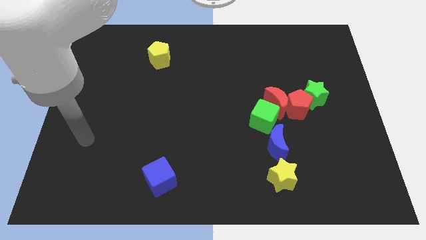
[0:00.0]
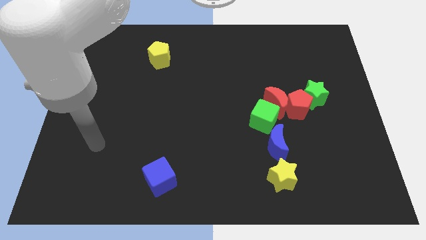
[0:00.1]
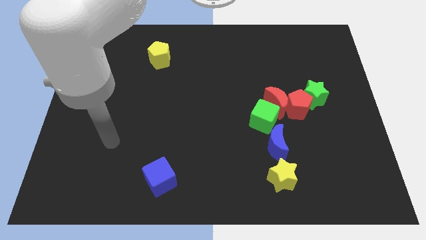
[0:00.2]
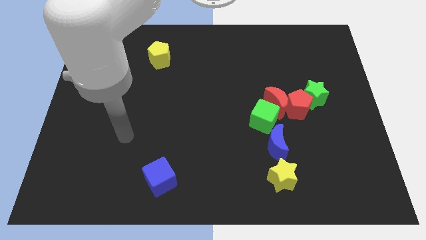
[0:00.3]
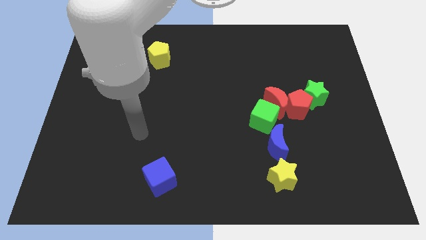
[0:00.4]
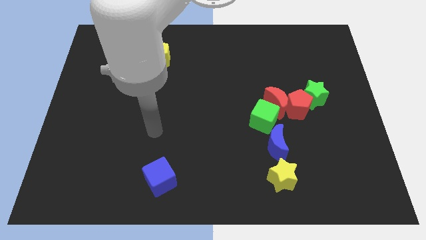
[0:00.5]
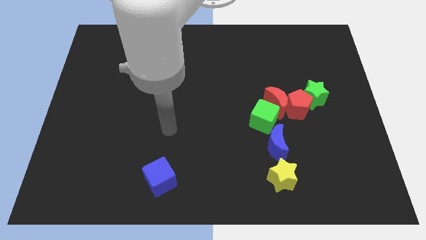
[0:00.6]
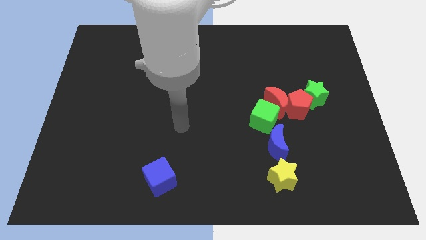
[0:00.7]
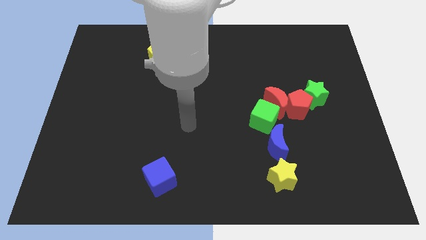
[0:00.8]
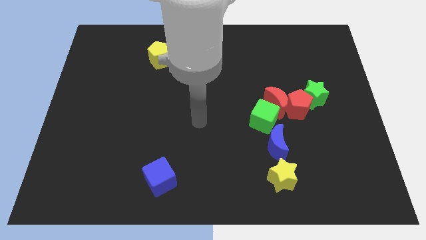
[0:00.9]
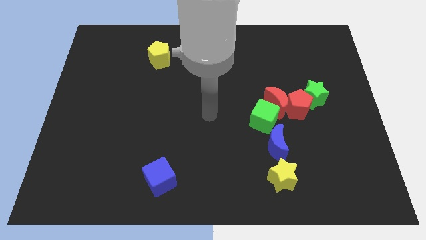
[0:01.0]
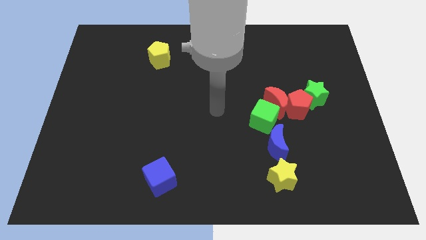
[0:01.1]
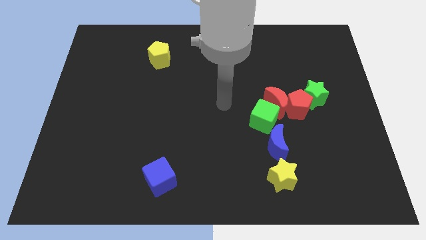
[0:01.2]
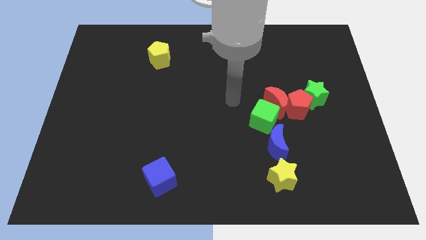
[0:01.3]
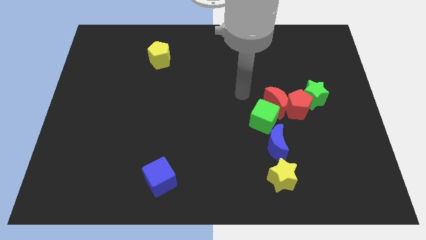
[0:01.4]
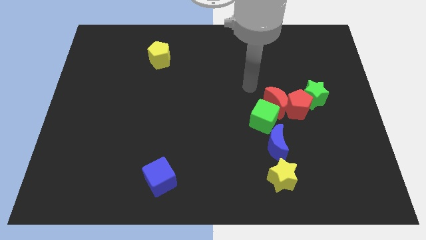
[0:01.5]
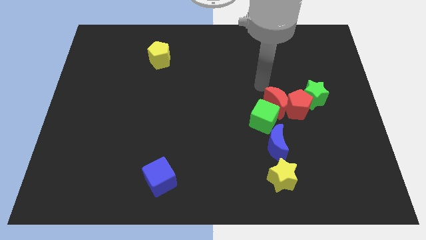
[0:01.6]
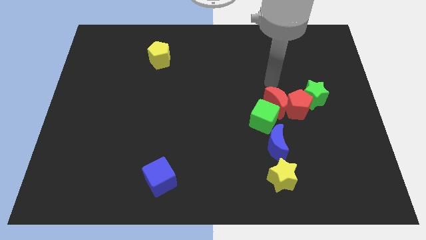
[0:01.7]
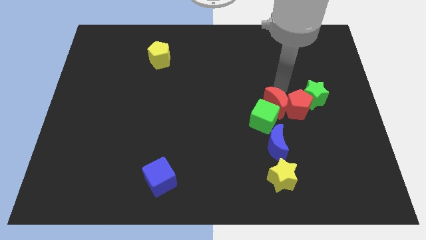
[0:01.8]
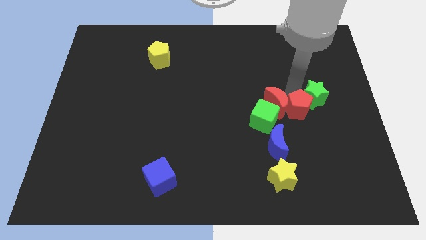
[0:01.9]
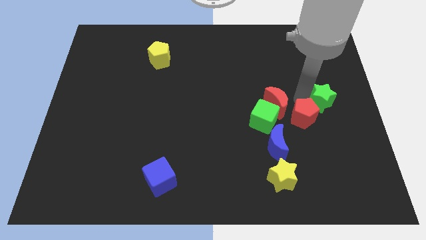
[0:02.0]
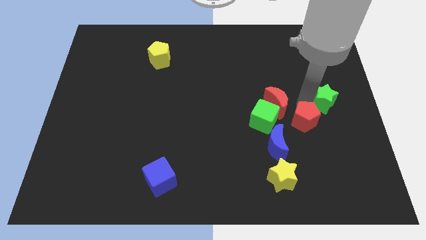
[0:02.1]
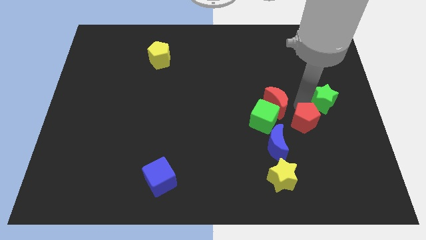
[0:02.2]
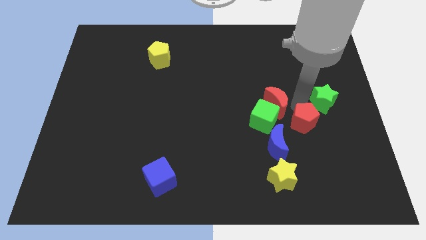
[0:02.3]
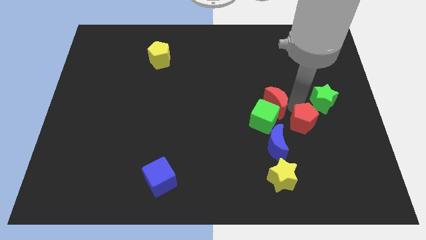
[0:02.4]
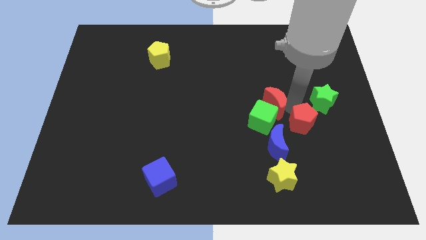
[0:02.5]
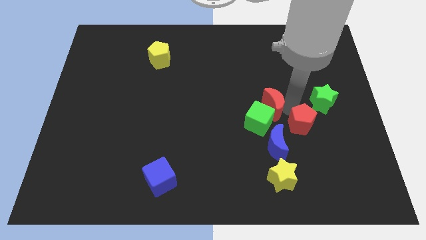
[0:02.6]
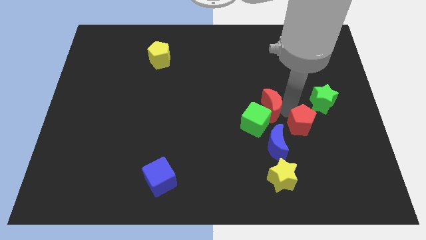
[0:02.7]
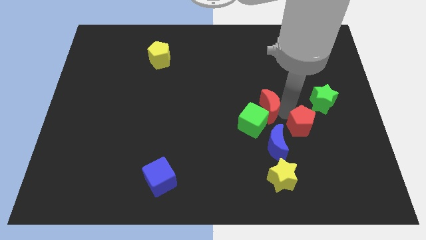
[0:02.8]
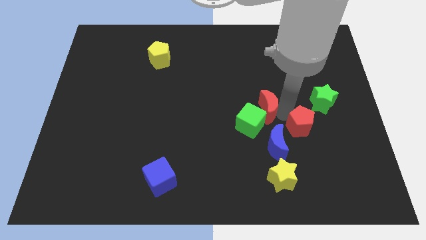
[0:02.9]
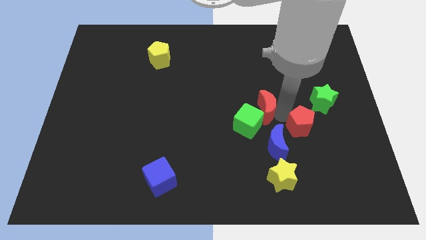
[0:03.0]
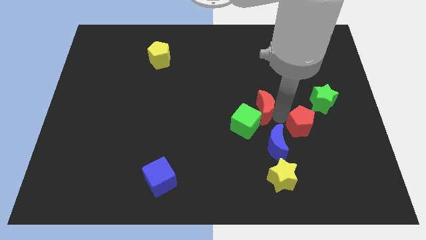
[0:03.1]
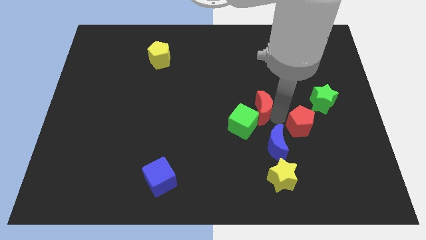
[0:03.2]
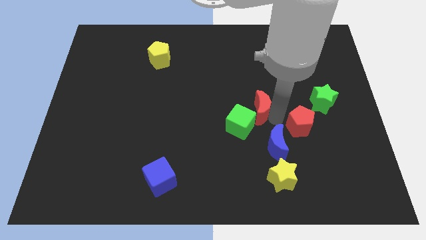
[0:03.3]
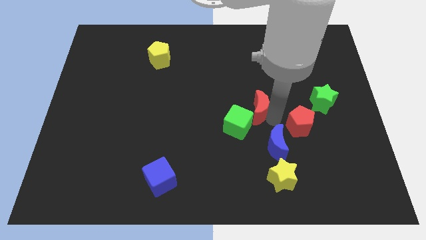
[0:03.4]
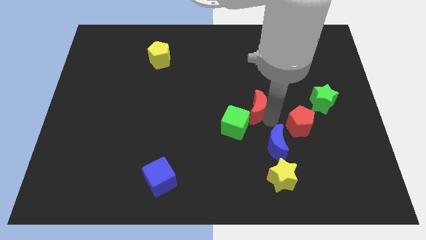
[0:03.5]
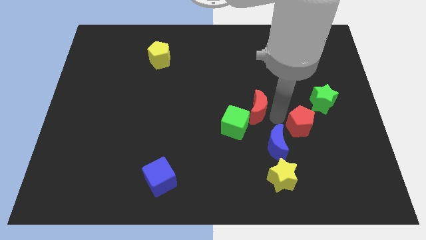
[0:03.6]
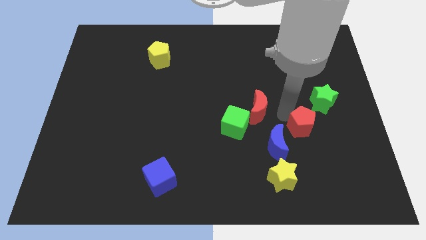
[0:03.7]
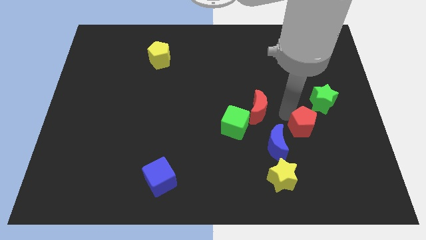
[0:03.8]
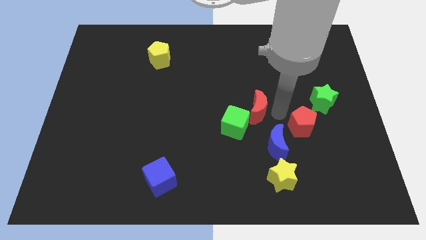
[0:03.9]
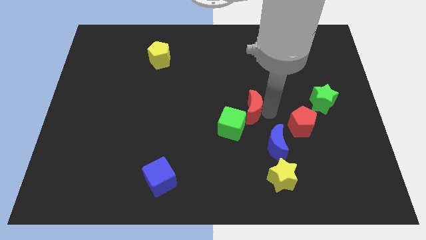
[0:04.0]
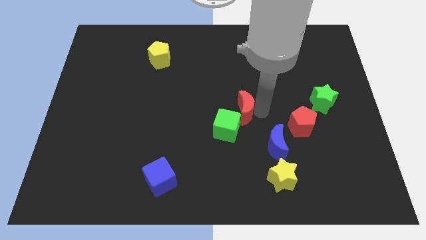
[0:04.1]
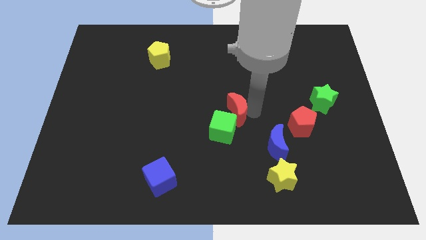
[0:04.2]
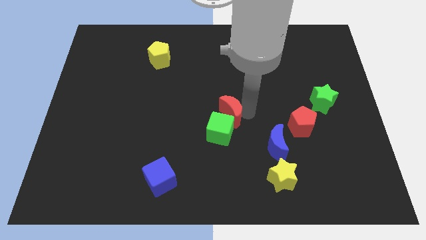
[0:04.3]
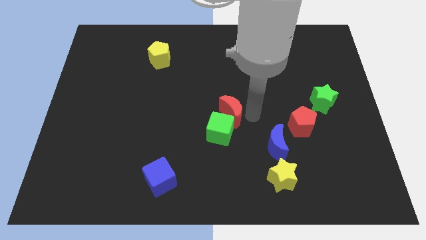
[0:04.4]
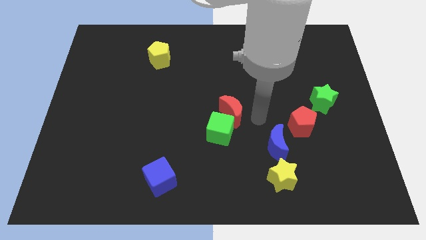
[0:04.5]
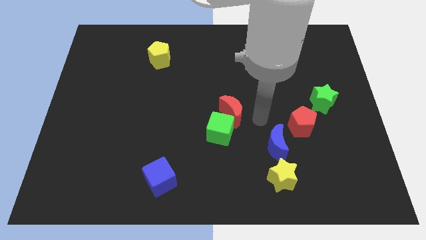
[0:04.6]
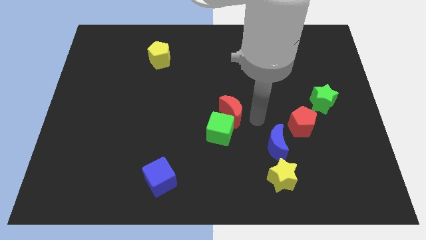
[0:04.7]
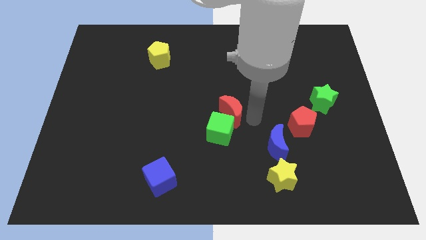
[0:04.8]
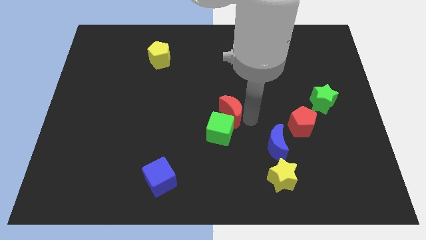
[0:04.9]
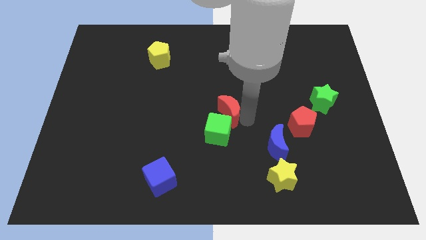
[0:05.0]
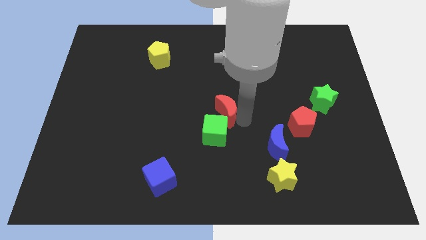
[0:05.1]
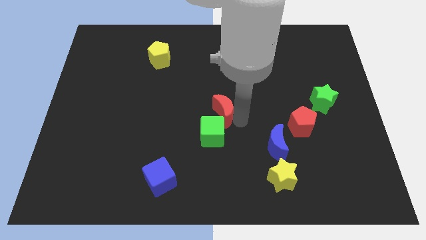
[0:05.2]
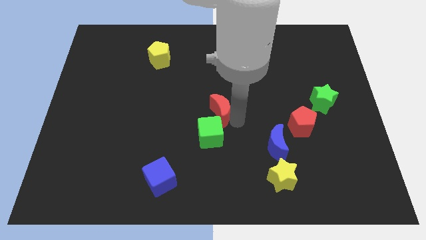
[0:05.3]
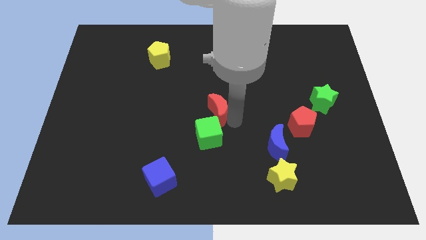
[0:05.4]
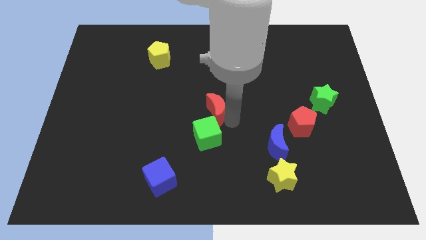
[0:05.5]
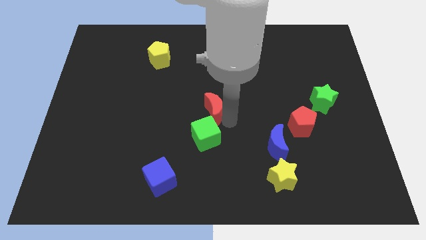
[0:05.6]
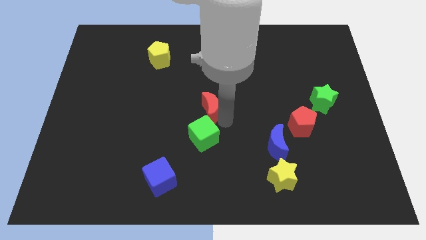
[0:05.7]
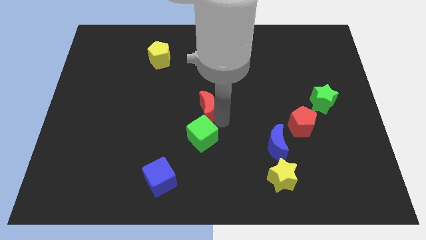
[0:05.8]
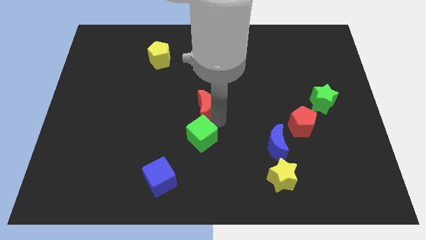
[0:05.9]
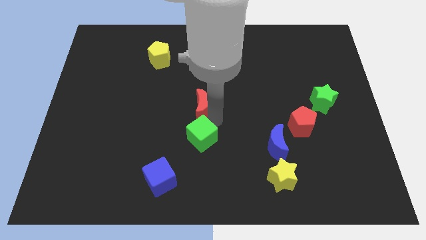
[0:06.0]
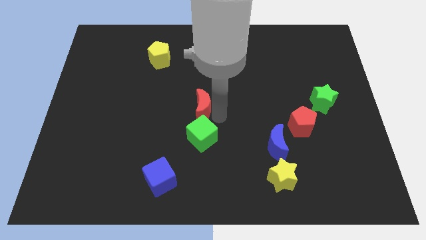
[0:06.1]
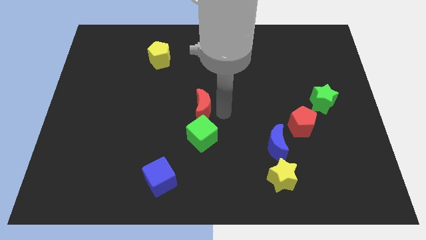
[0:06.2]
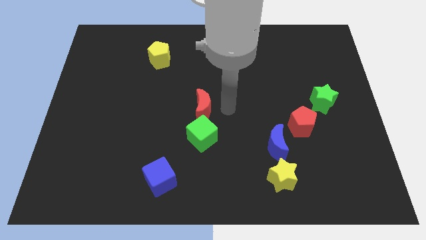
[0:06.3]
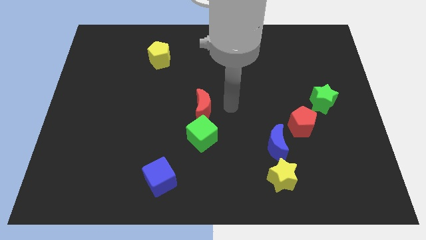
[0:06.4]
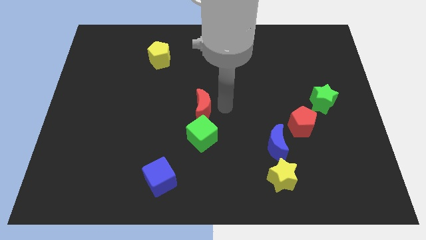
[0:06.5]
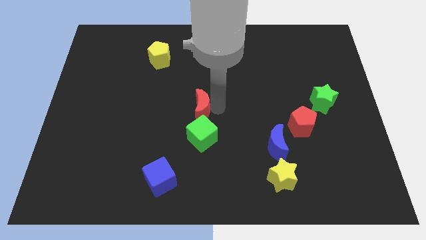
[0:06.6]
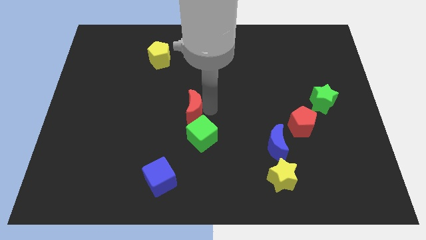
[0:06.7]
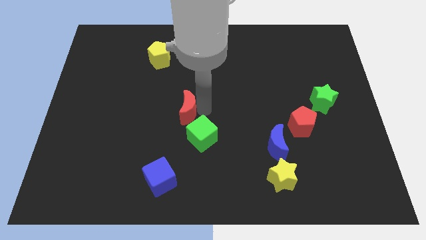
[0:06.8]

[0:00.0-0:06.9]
slide the red moon left

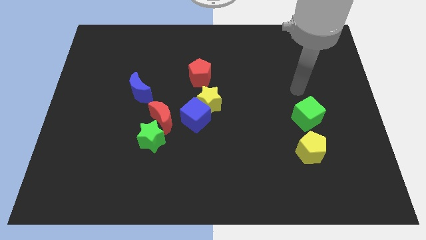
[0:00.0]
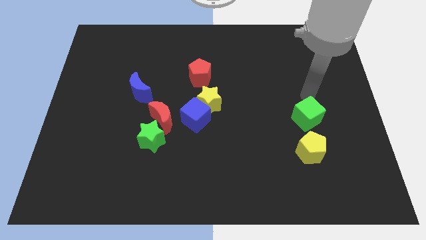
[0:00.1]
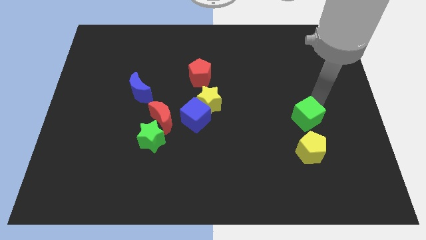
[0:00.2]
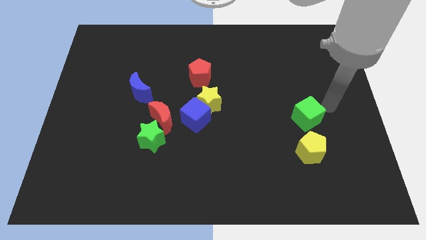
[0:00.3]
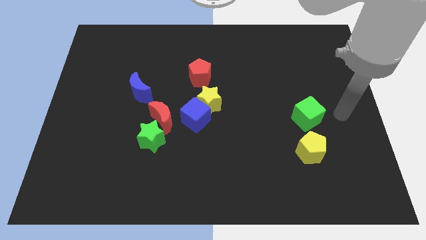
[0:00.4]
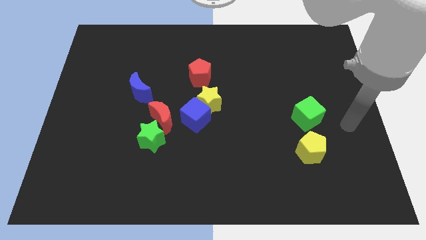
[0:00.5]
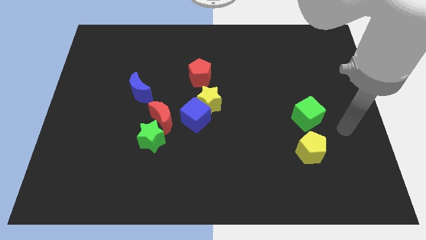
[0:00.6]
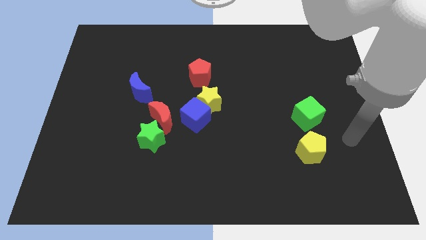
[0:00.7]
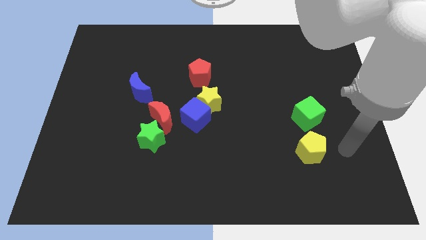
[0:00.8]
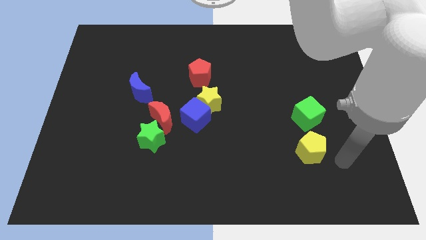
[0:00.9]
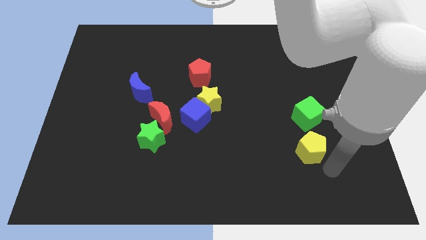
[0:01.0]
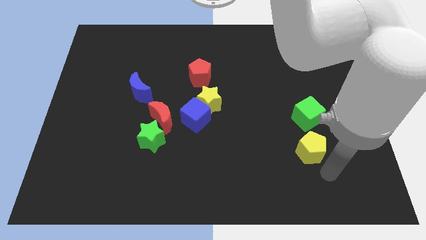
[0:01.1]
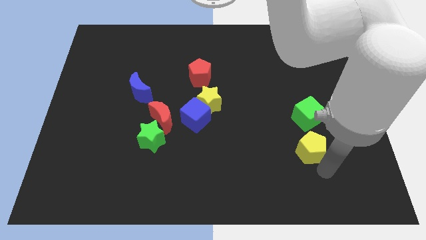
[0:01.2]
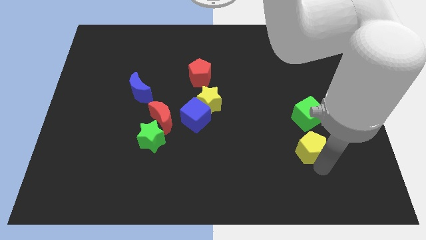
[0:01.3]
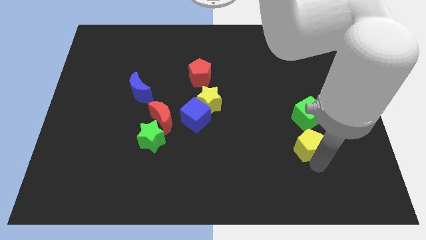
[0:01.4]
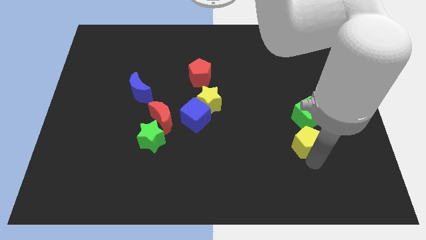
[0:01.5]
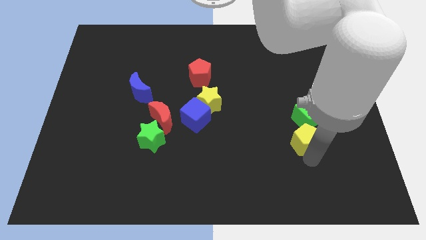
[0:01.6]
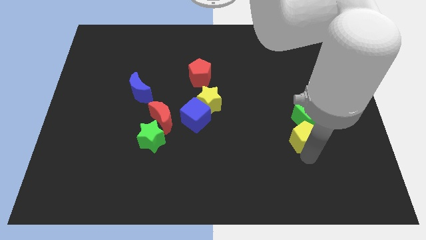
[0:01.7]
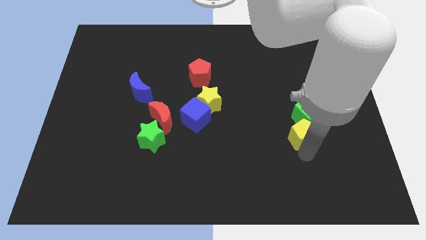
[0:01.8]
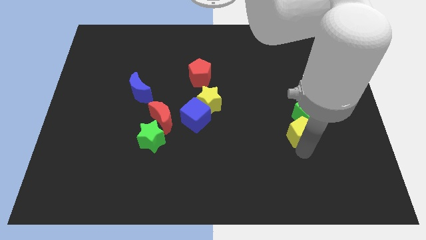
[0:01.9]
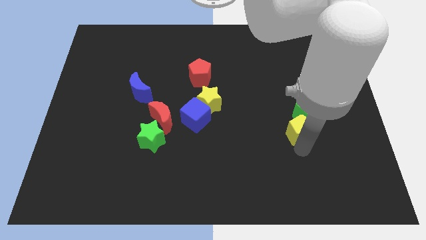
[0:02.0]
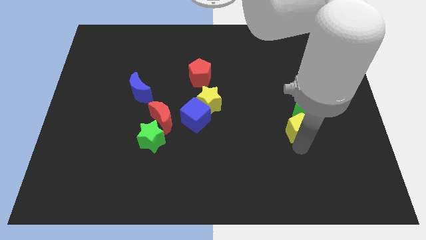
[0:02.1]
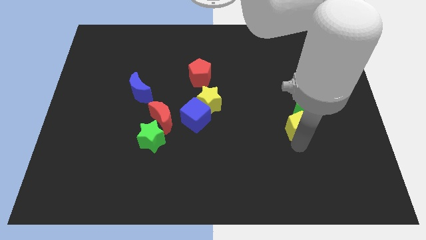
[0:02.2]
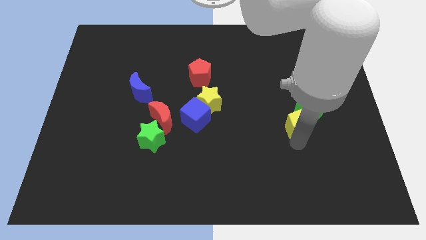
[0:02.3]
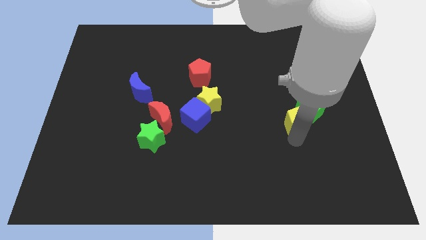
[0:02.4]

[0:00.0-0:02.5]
move the yellow pentagon somewhat upwards
